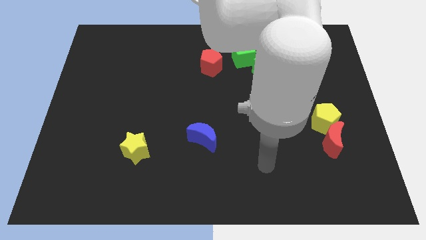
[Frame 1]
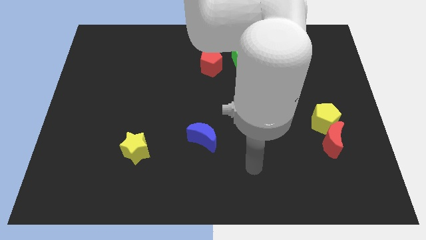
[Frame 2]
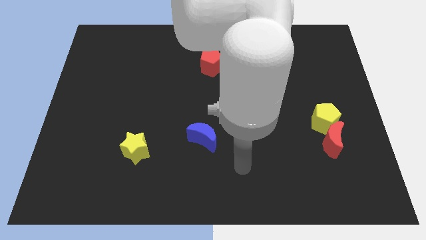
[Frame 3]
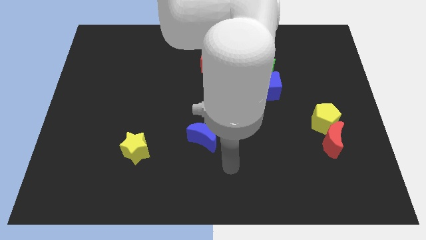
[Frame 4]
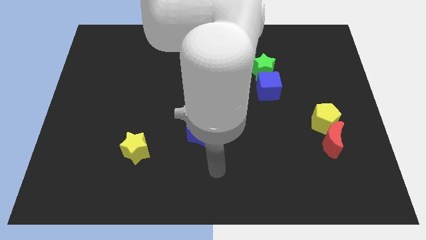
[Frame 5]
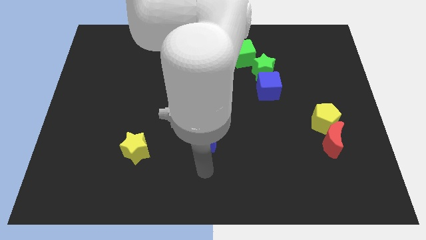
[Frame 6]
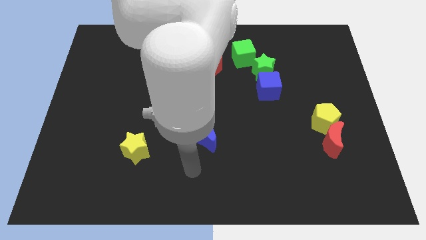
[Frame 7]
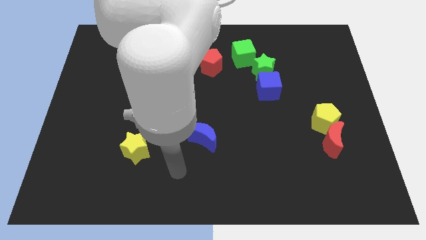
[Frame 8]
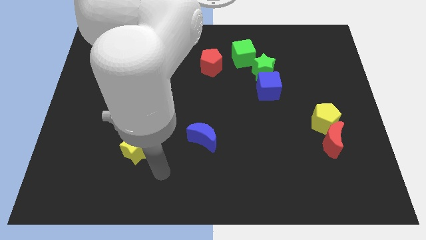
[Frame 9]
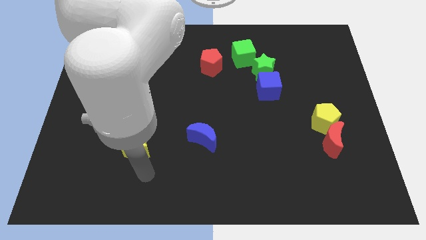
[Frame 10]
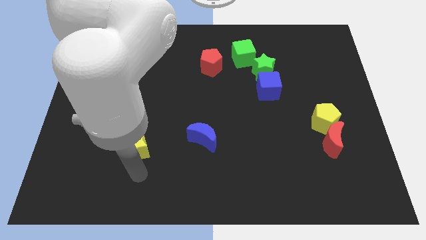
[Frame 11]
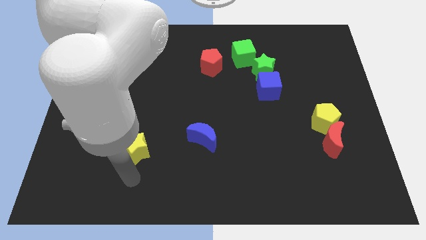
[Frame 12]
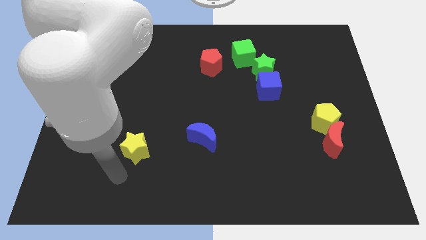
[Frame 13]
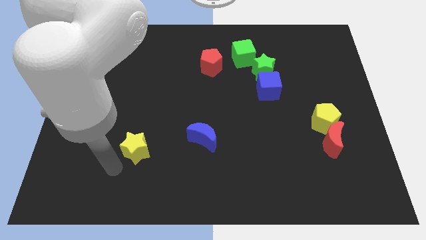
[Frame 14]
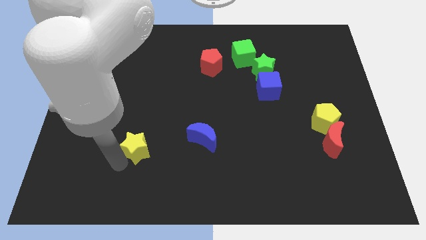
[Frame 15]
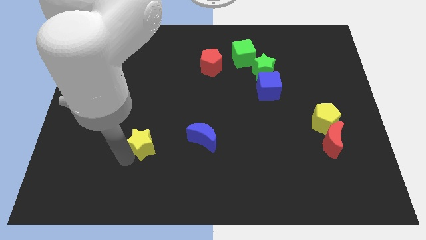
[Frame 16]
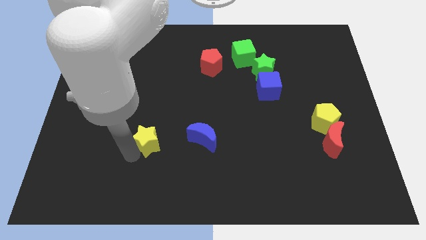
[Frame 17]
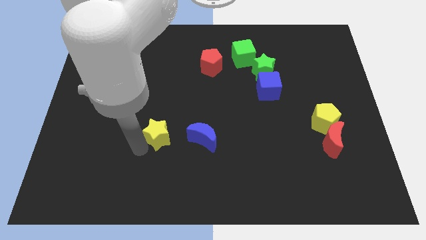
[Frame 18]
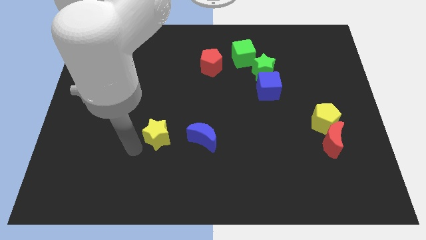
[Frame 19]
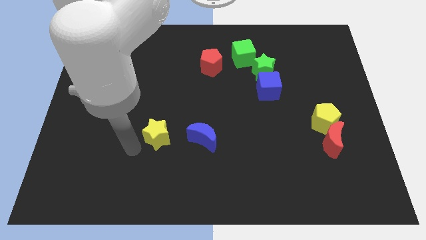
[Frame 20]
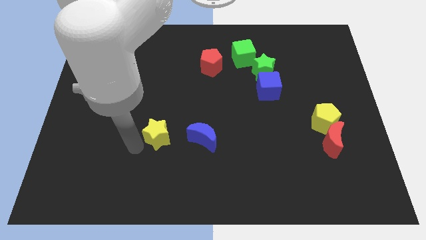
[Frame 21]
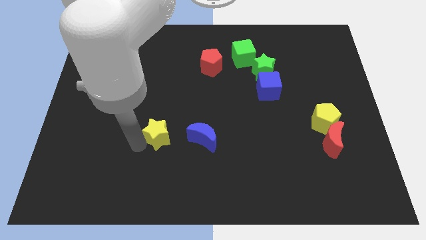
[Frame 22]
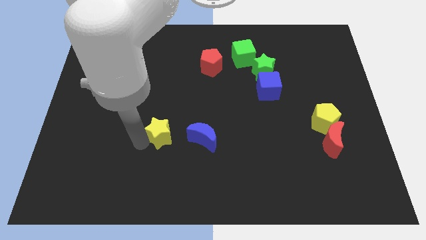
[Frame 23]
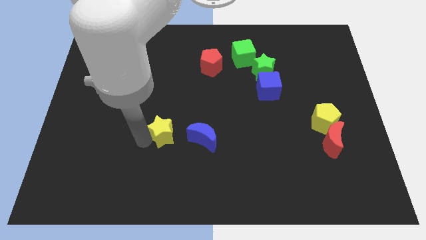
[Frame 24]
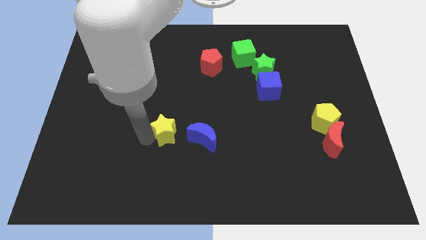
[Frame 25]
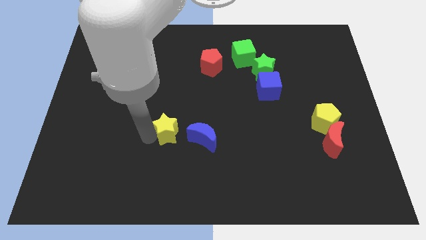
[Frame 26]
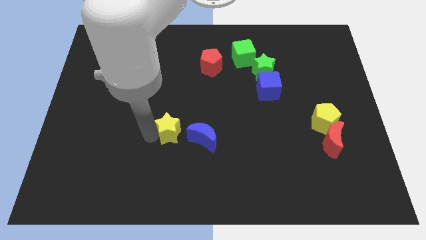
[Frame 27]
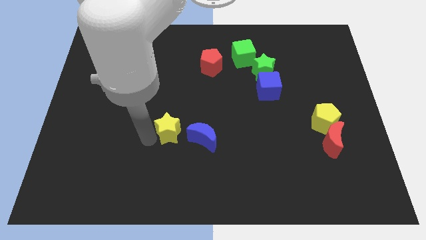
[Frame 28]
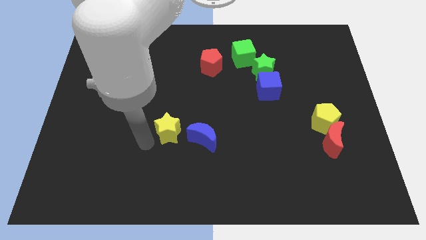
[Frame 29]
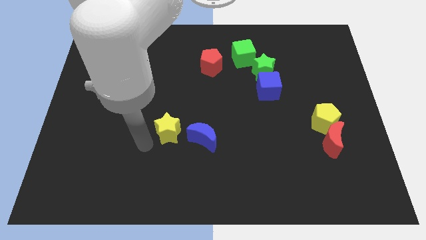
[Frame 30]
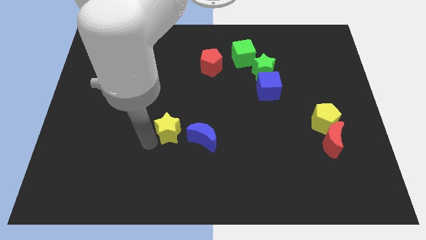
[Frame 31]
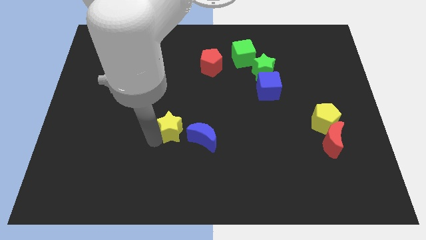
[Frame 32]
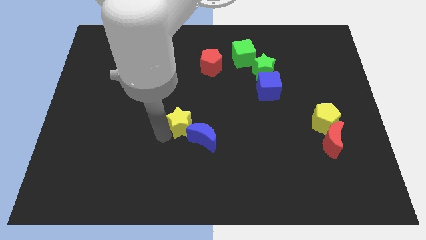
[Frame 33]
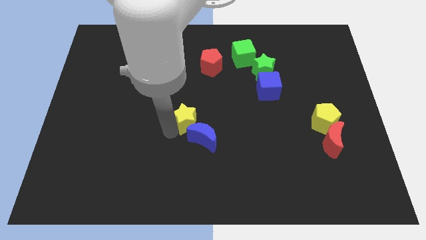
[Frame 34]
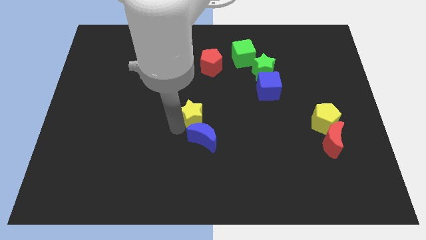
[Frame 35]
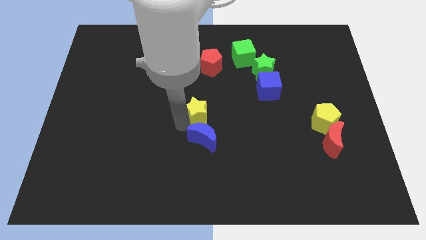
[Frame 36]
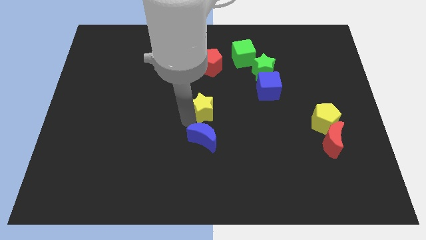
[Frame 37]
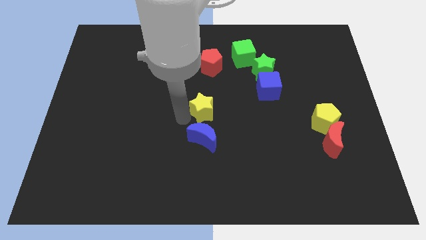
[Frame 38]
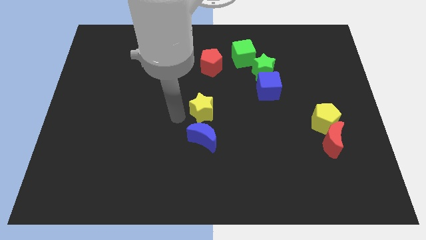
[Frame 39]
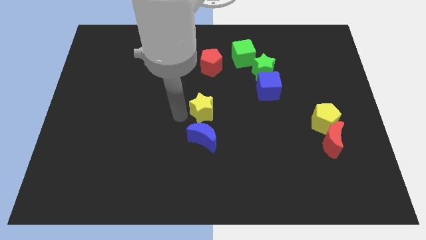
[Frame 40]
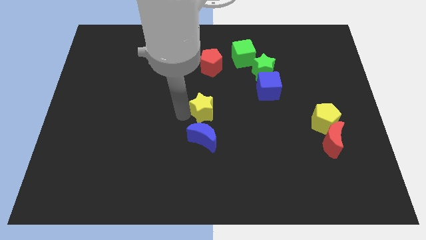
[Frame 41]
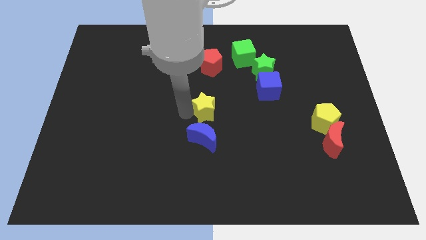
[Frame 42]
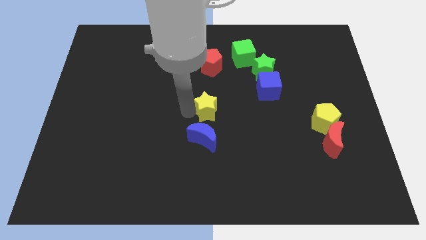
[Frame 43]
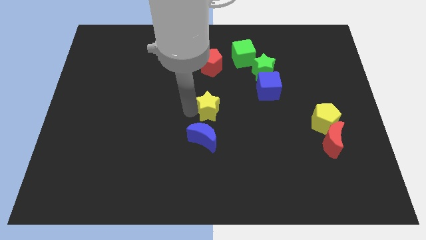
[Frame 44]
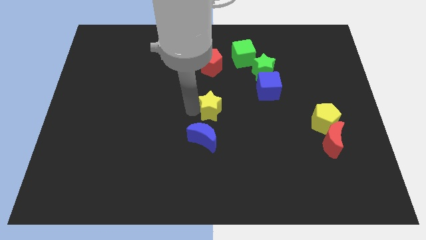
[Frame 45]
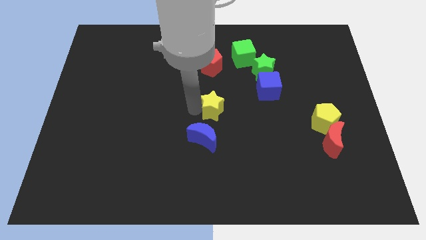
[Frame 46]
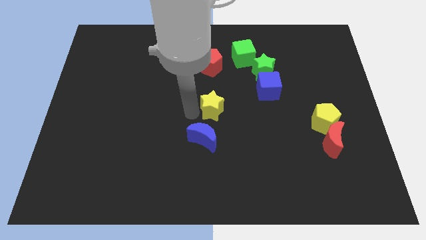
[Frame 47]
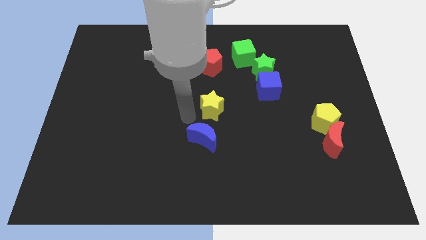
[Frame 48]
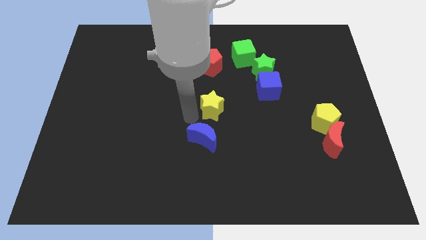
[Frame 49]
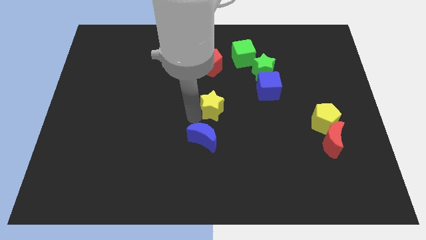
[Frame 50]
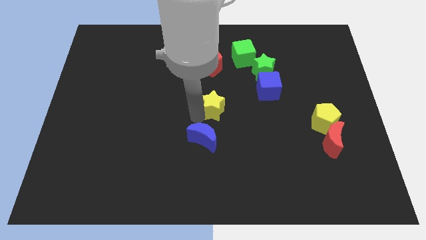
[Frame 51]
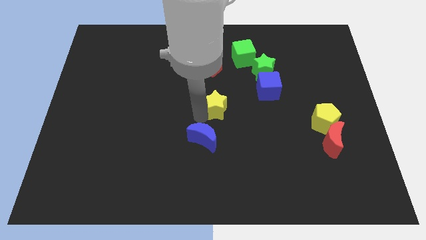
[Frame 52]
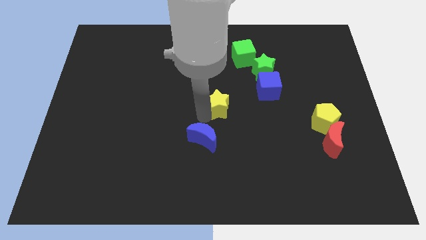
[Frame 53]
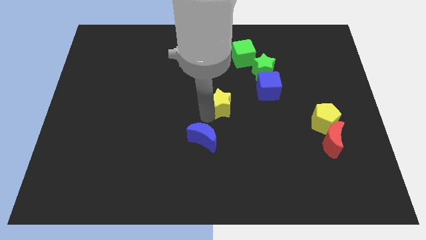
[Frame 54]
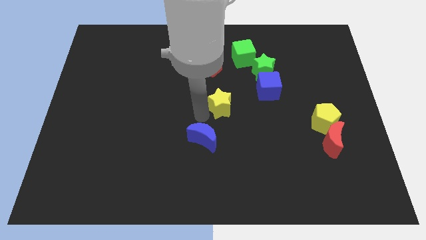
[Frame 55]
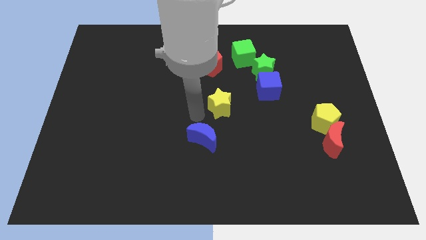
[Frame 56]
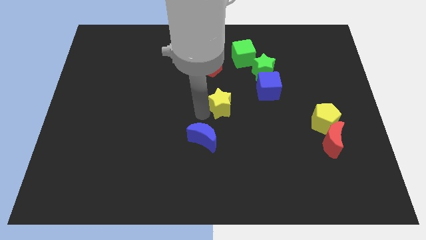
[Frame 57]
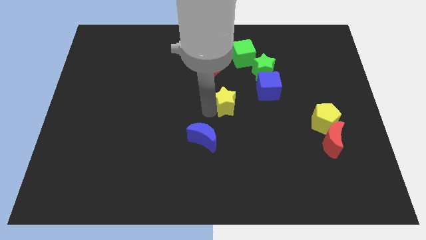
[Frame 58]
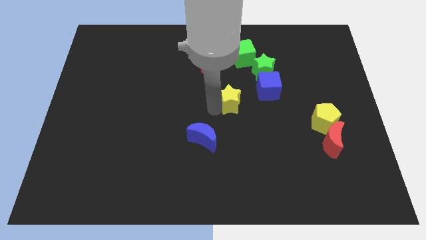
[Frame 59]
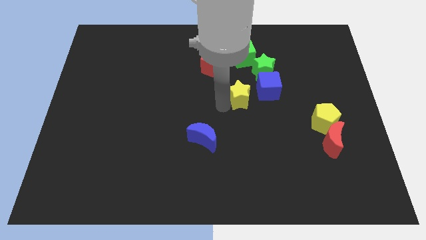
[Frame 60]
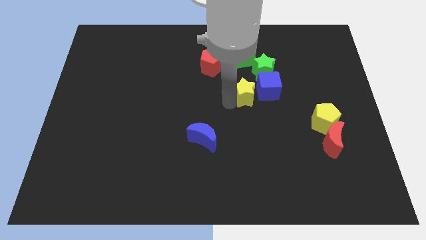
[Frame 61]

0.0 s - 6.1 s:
move the yellow star next to the blue cube

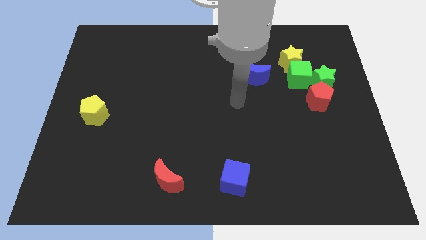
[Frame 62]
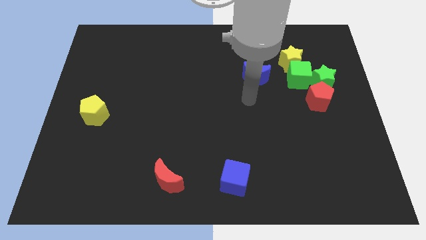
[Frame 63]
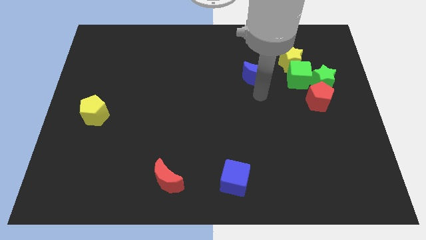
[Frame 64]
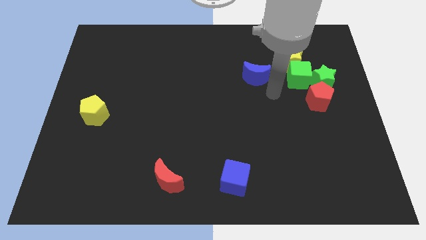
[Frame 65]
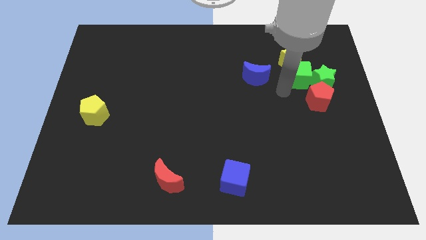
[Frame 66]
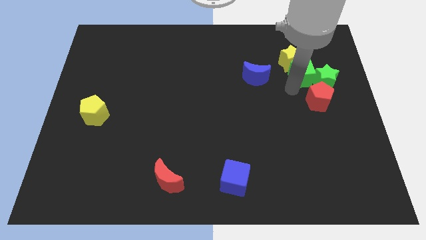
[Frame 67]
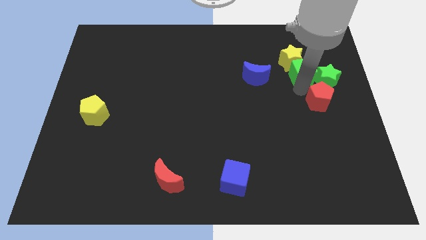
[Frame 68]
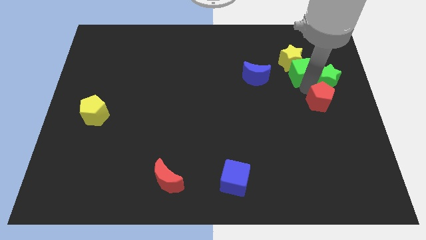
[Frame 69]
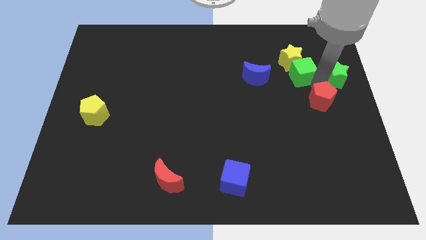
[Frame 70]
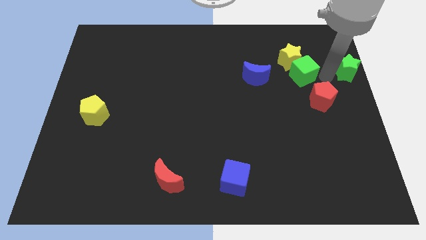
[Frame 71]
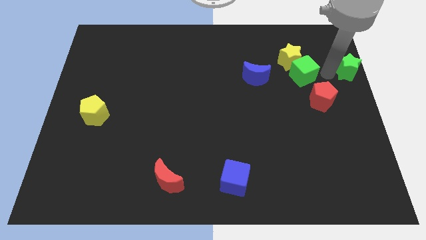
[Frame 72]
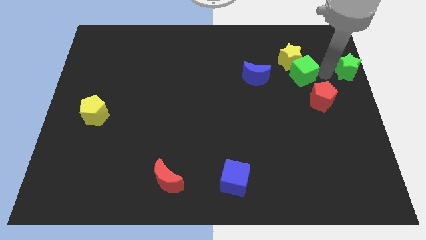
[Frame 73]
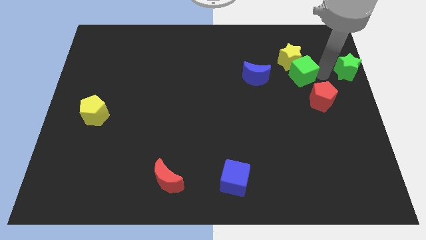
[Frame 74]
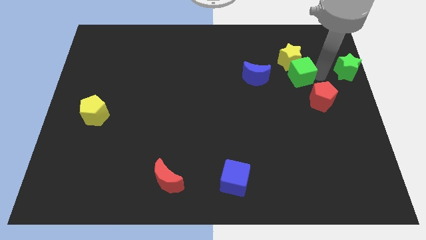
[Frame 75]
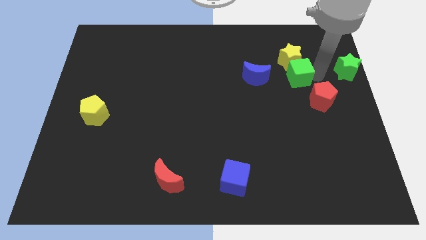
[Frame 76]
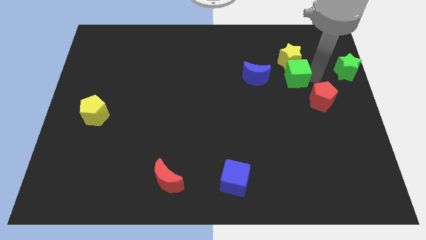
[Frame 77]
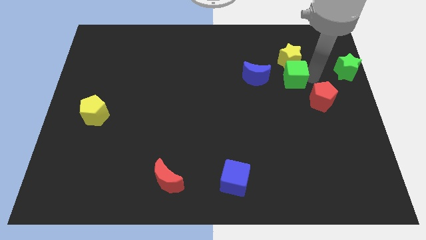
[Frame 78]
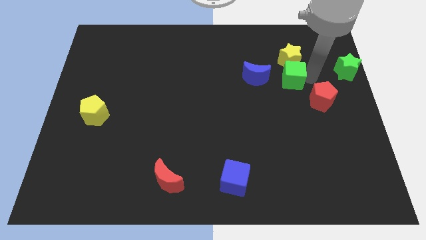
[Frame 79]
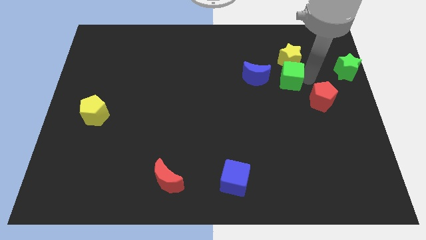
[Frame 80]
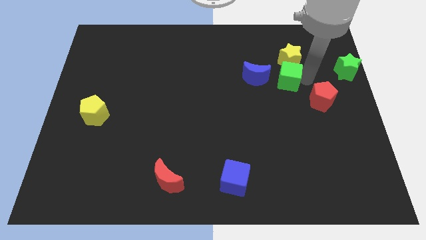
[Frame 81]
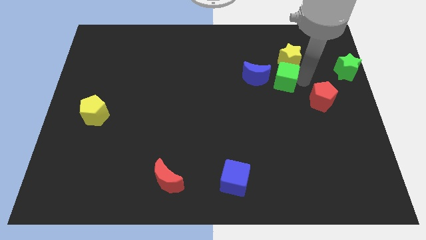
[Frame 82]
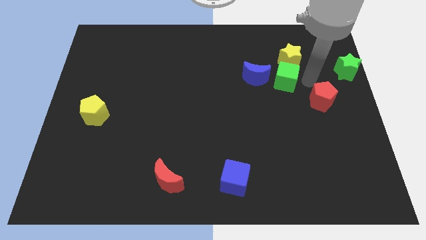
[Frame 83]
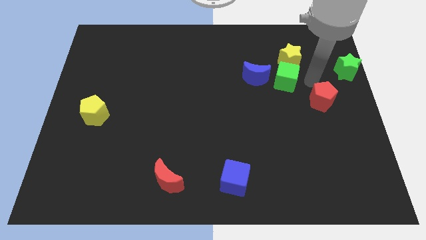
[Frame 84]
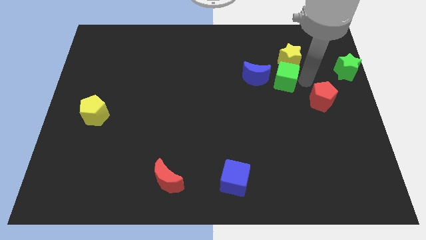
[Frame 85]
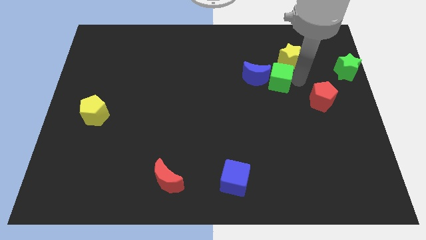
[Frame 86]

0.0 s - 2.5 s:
move the green cube towards the blue moon
